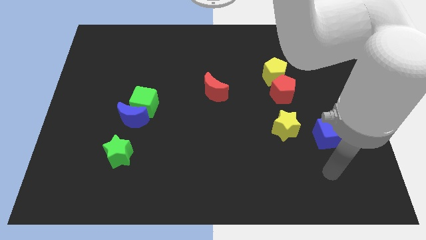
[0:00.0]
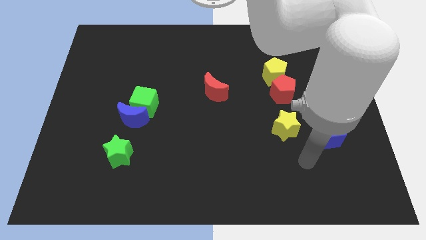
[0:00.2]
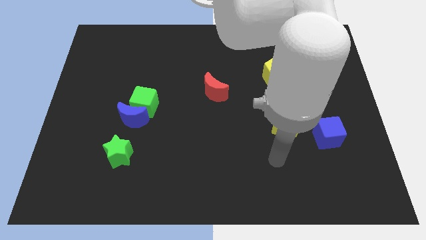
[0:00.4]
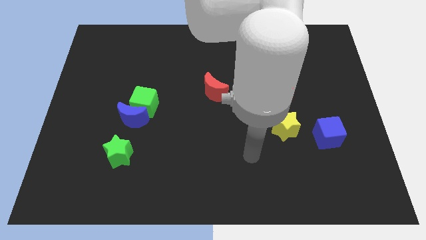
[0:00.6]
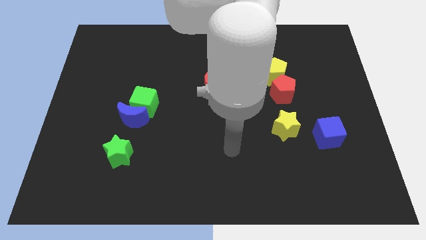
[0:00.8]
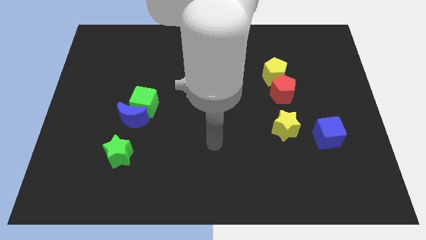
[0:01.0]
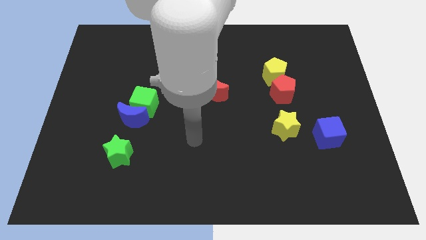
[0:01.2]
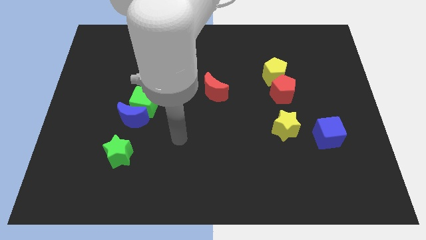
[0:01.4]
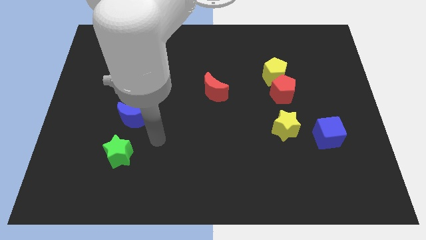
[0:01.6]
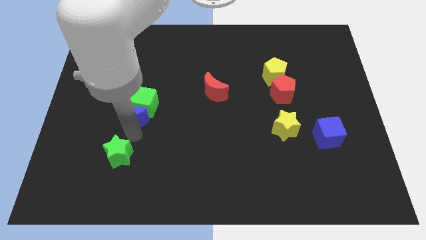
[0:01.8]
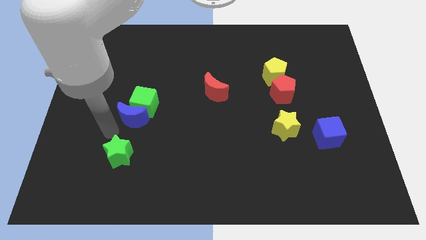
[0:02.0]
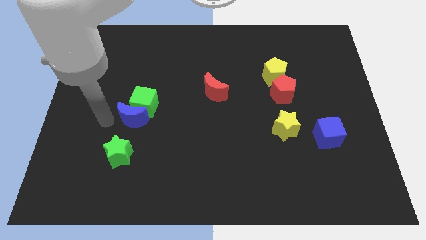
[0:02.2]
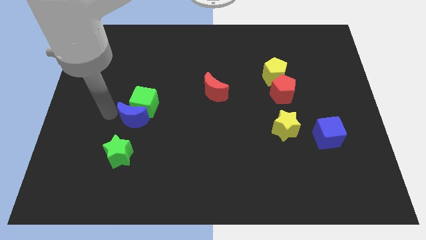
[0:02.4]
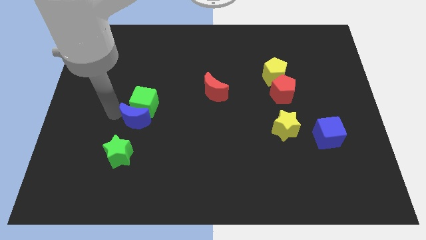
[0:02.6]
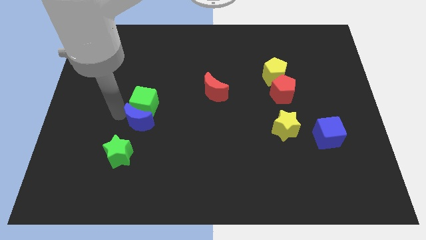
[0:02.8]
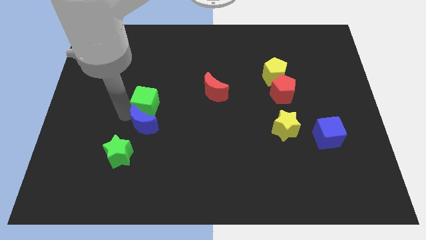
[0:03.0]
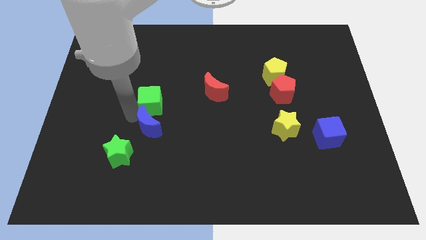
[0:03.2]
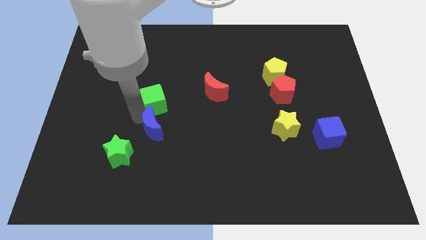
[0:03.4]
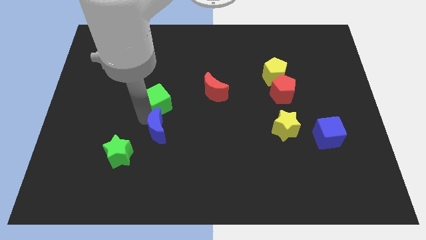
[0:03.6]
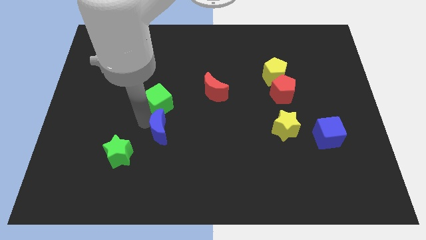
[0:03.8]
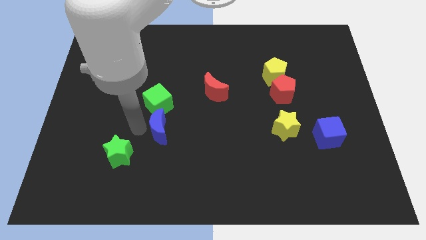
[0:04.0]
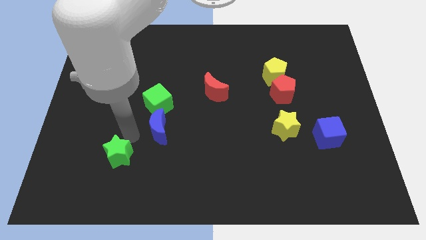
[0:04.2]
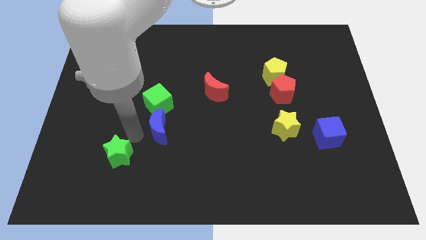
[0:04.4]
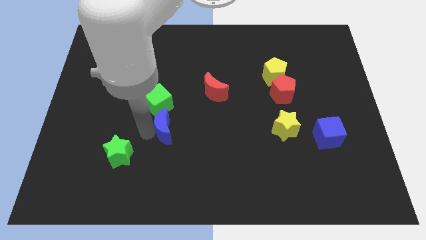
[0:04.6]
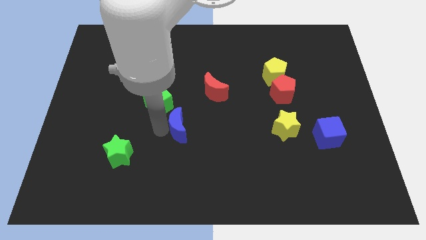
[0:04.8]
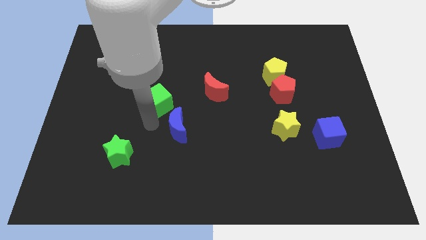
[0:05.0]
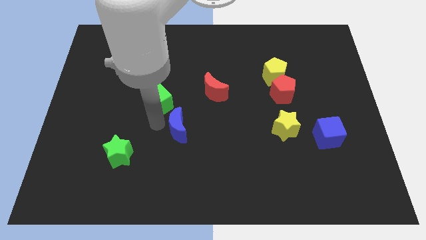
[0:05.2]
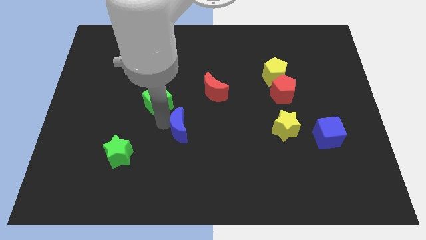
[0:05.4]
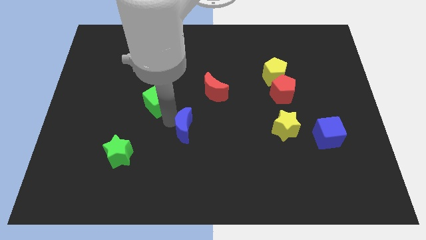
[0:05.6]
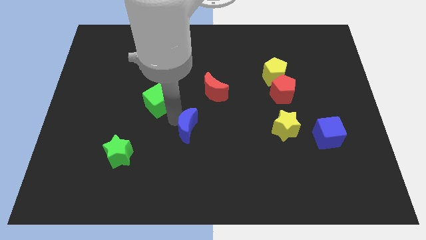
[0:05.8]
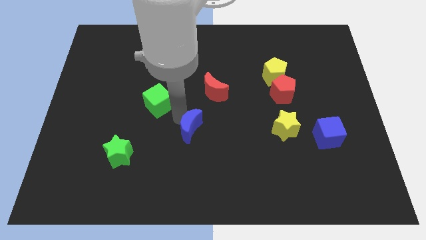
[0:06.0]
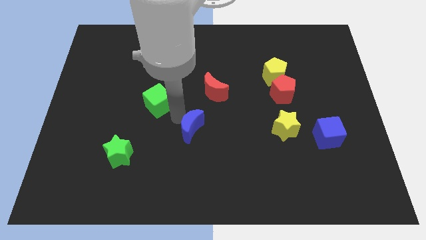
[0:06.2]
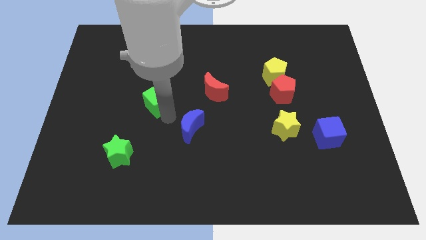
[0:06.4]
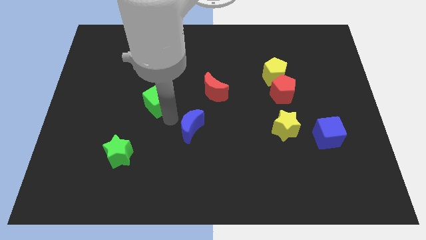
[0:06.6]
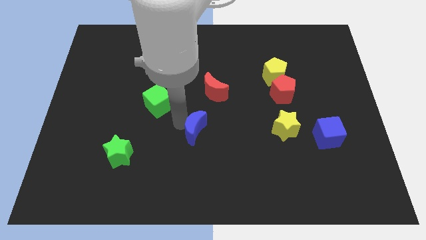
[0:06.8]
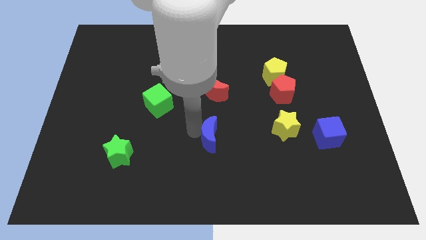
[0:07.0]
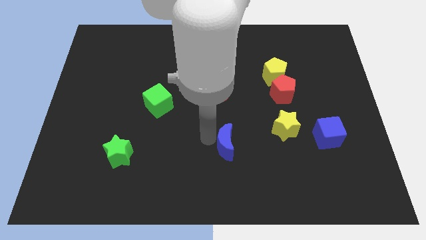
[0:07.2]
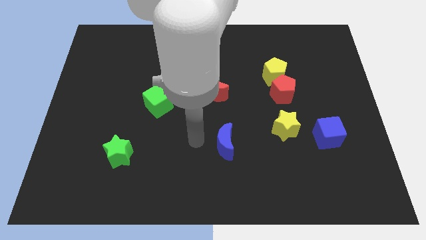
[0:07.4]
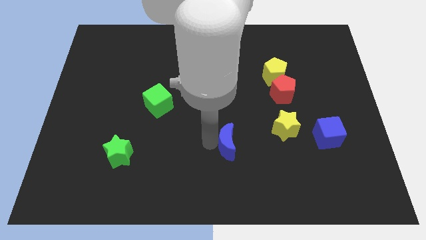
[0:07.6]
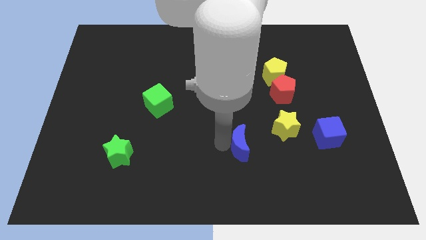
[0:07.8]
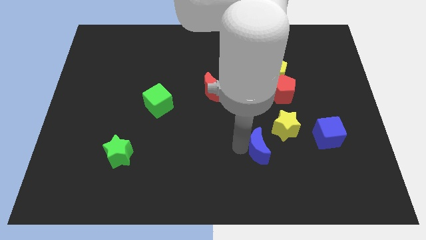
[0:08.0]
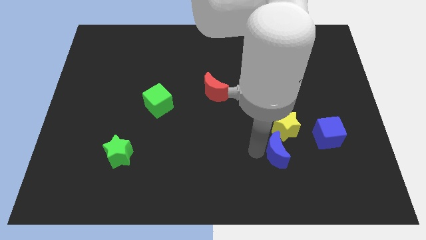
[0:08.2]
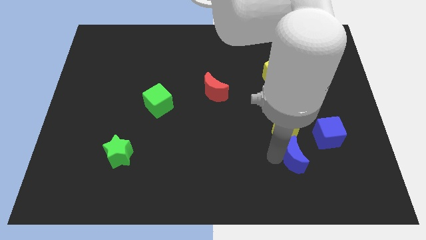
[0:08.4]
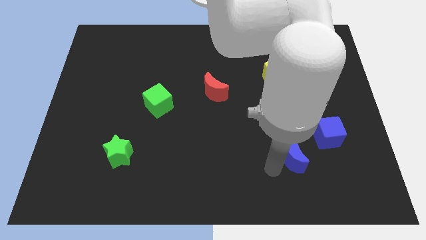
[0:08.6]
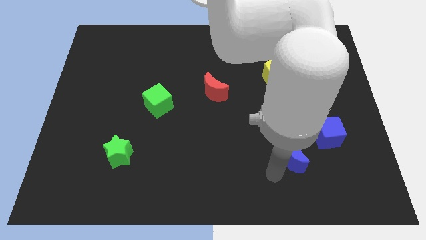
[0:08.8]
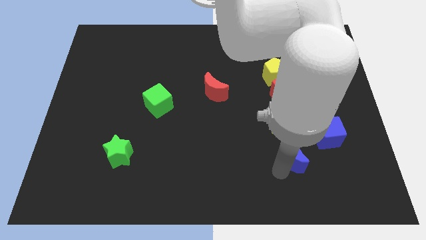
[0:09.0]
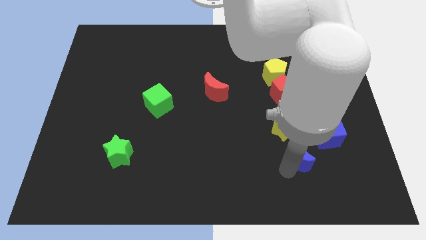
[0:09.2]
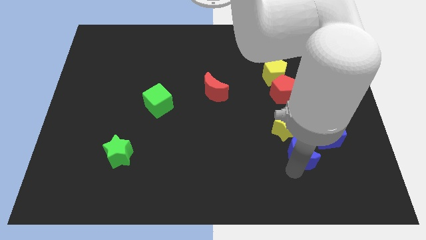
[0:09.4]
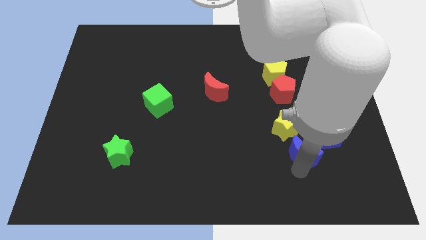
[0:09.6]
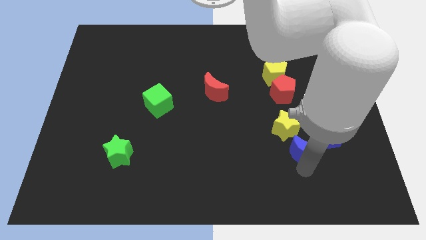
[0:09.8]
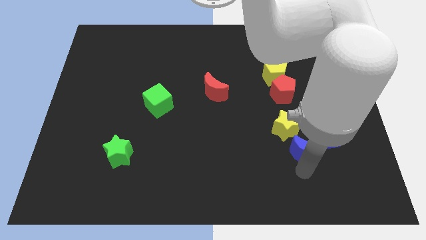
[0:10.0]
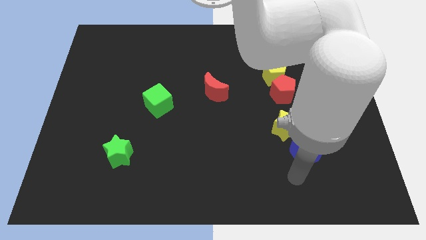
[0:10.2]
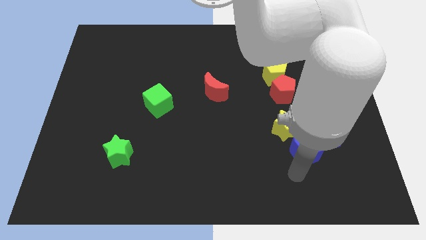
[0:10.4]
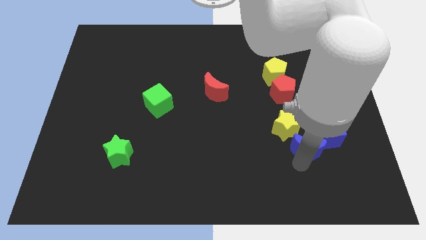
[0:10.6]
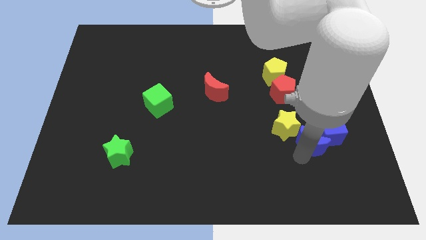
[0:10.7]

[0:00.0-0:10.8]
slide the blue moon to the blue cube

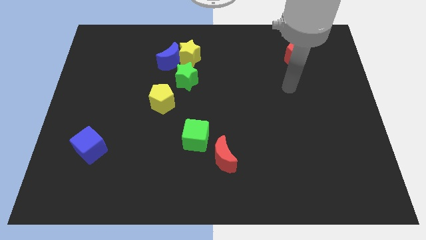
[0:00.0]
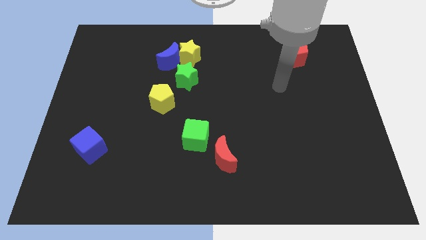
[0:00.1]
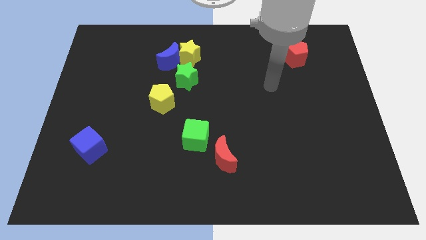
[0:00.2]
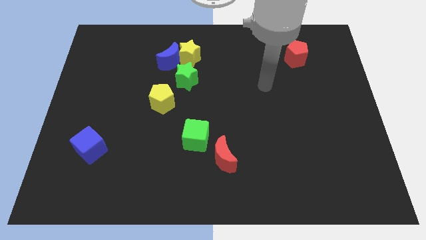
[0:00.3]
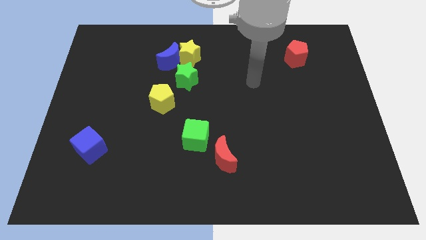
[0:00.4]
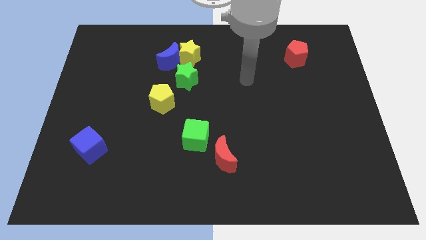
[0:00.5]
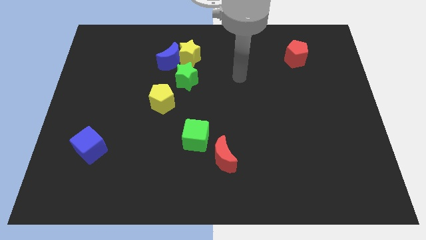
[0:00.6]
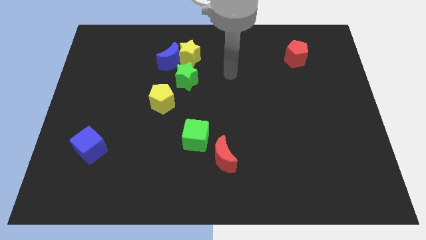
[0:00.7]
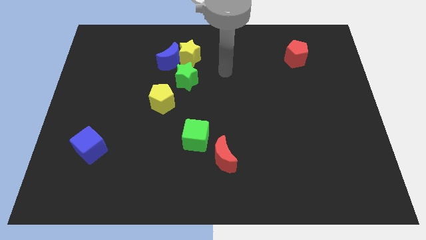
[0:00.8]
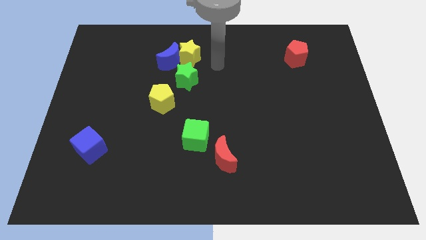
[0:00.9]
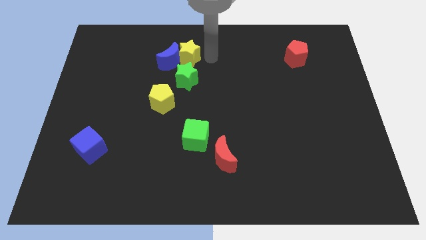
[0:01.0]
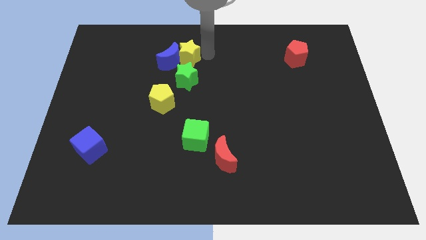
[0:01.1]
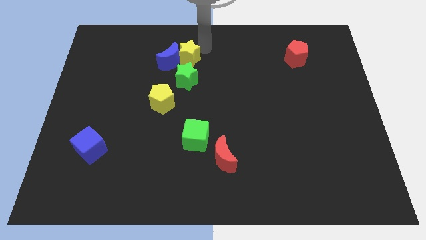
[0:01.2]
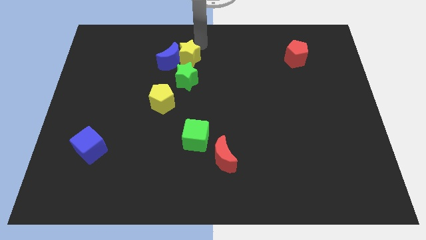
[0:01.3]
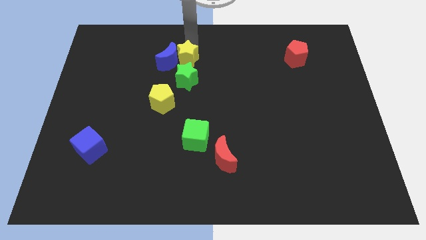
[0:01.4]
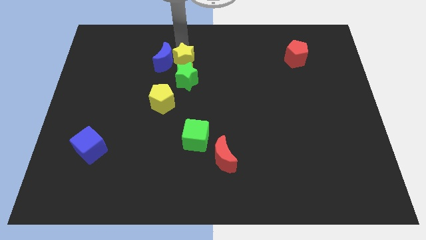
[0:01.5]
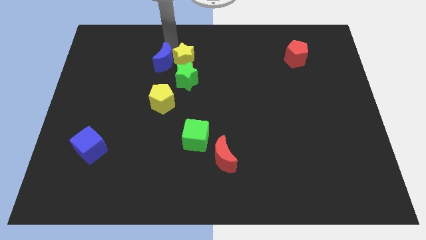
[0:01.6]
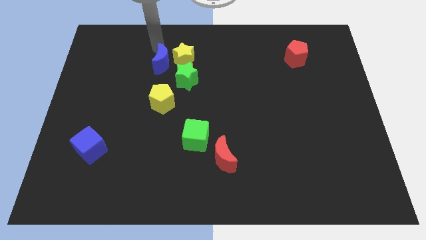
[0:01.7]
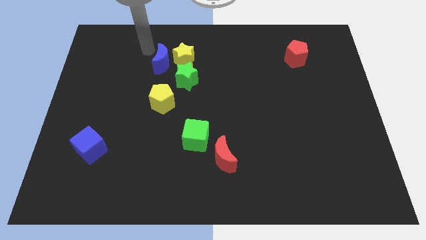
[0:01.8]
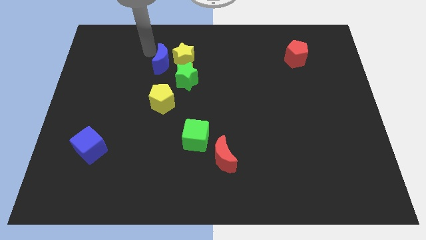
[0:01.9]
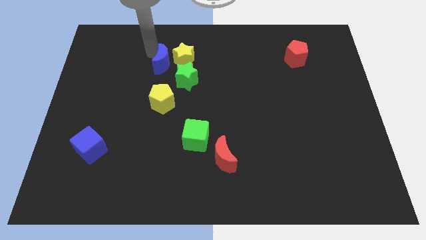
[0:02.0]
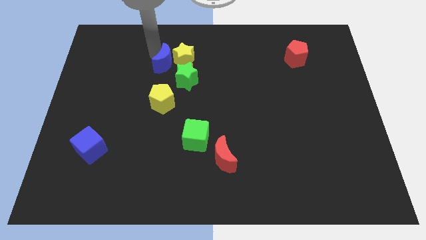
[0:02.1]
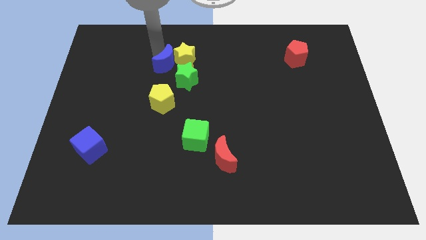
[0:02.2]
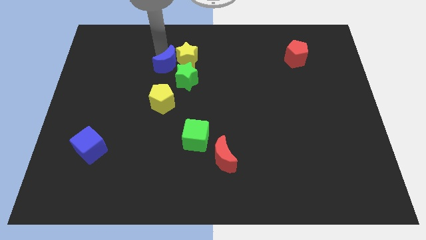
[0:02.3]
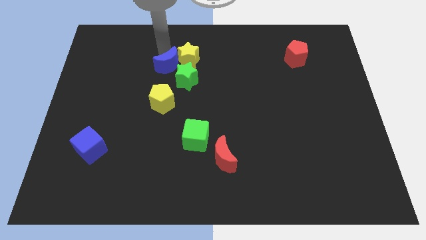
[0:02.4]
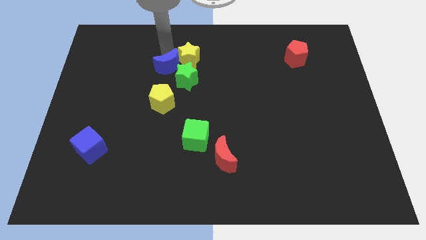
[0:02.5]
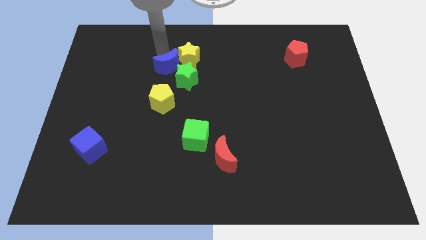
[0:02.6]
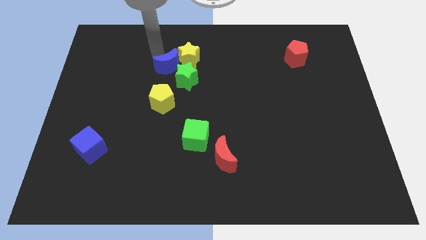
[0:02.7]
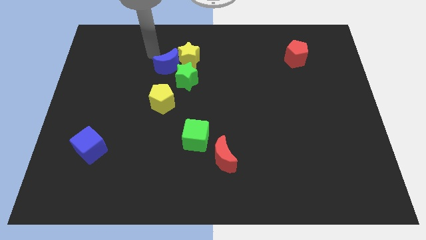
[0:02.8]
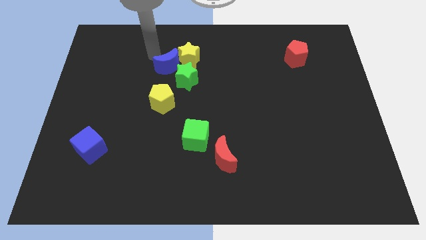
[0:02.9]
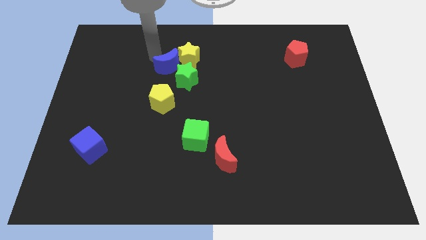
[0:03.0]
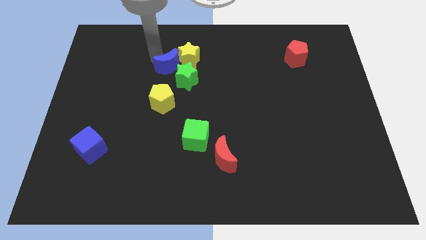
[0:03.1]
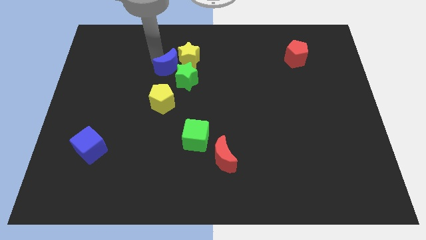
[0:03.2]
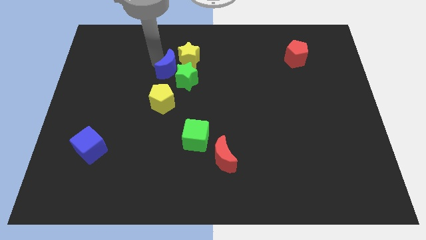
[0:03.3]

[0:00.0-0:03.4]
move the blue moon towards the green star
